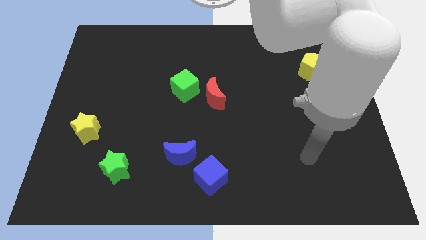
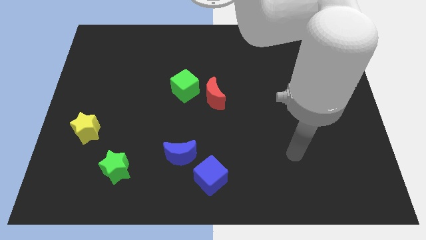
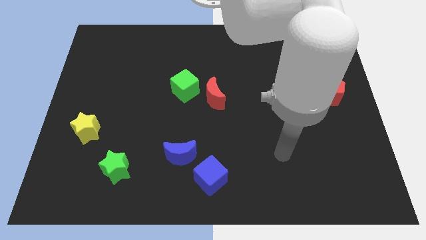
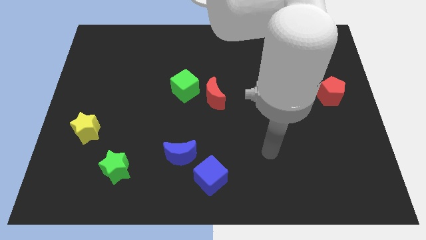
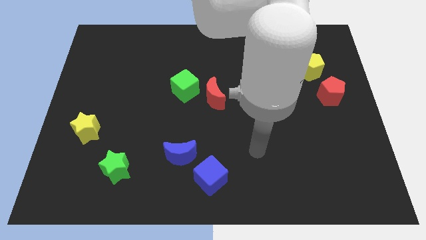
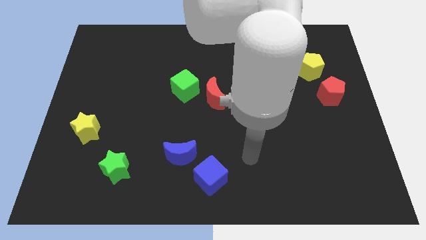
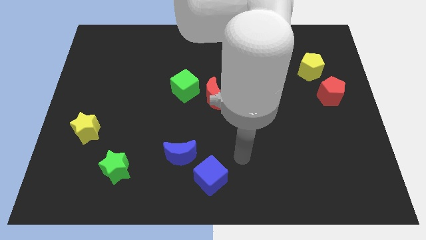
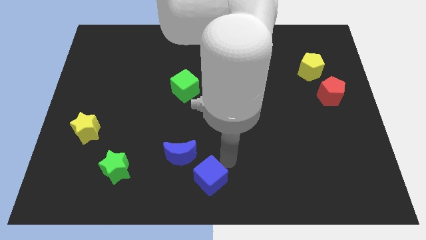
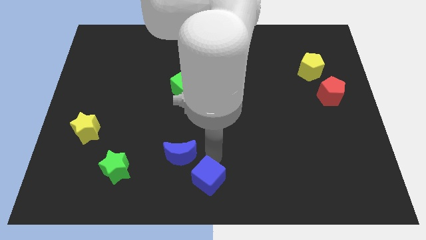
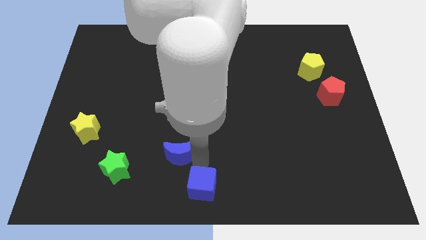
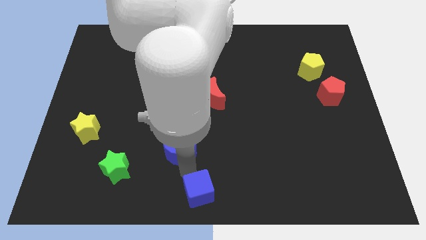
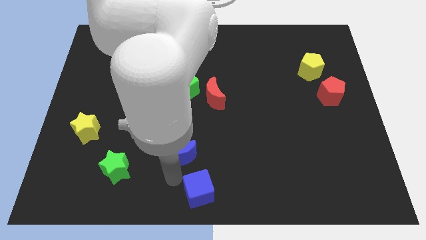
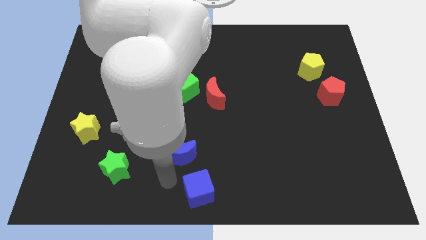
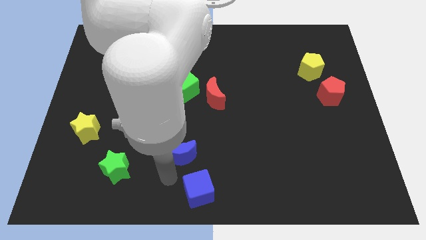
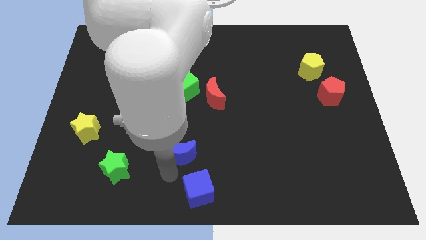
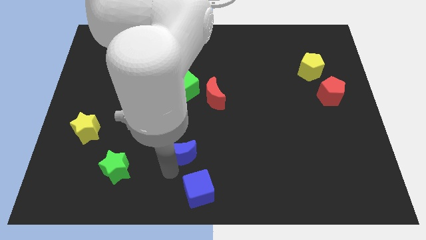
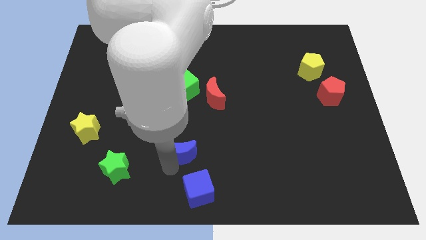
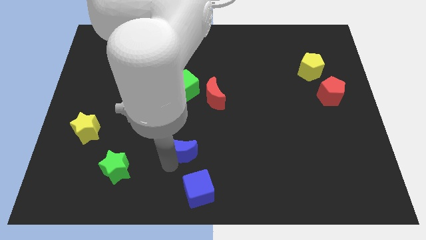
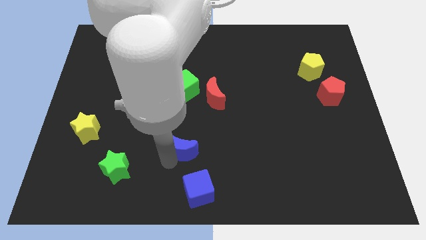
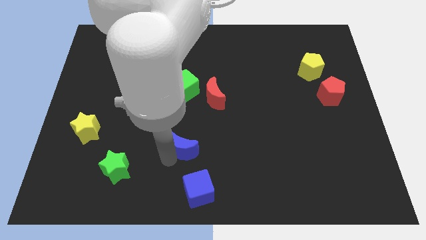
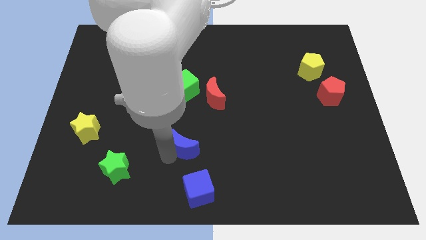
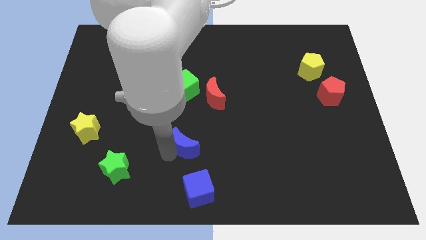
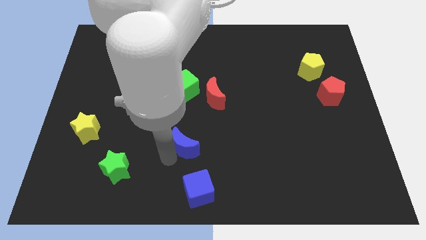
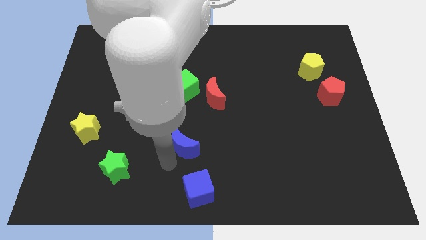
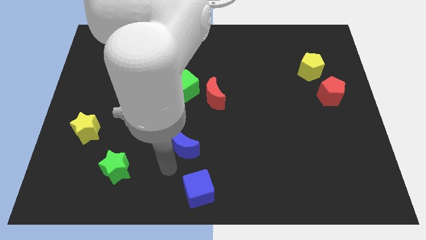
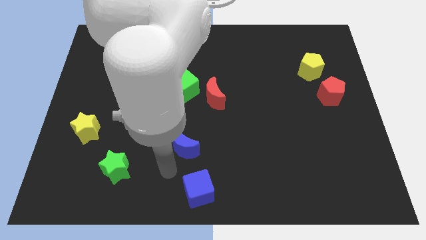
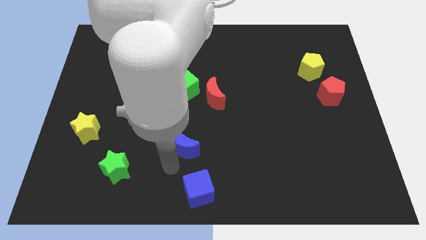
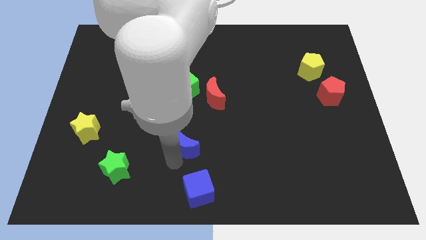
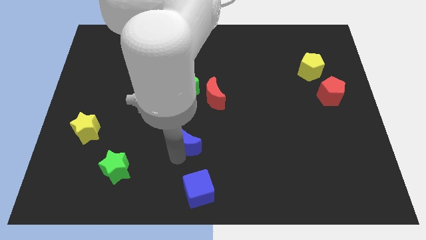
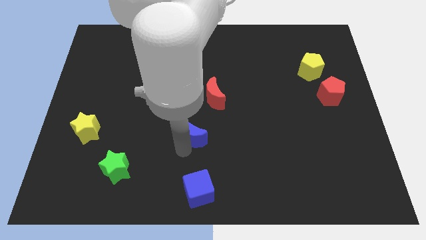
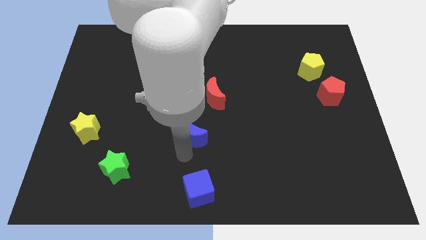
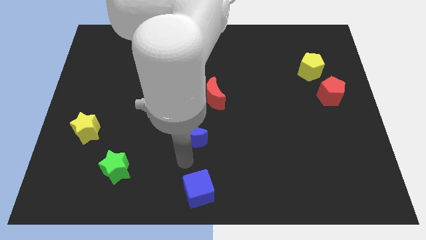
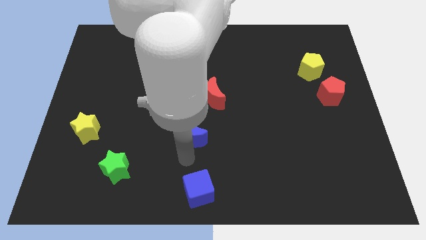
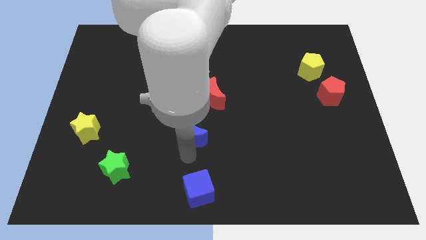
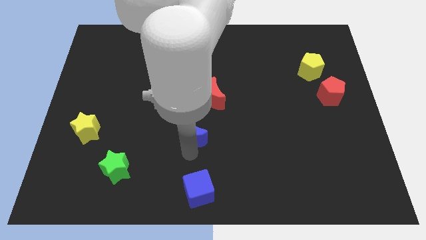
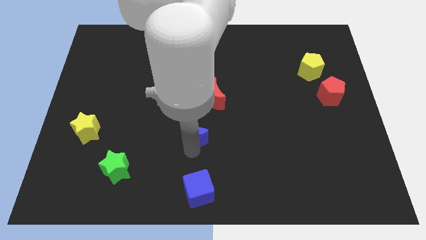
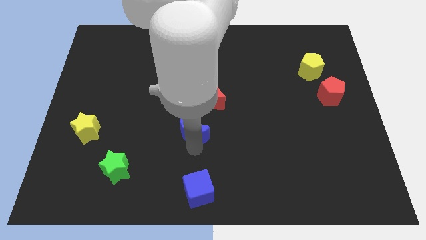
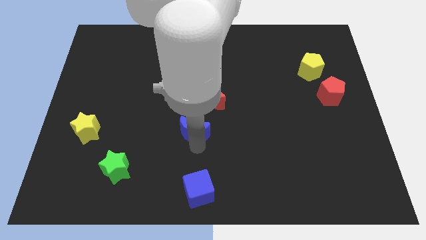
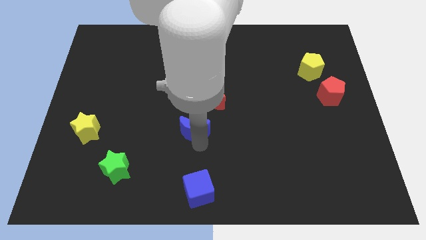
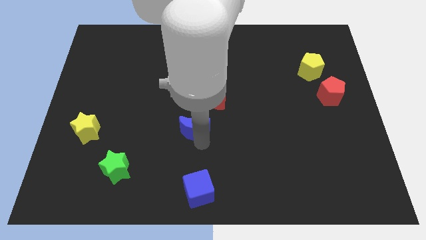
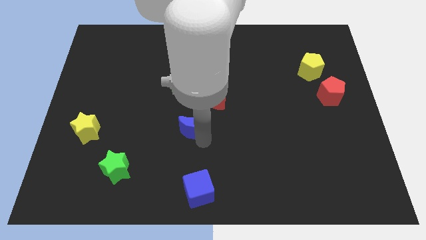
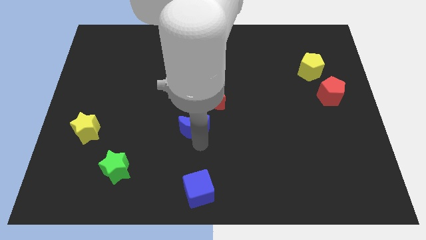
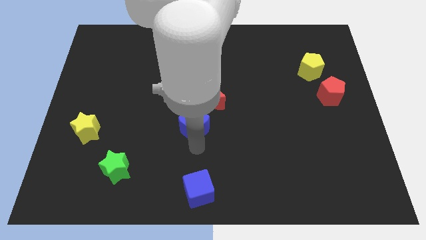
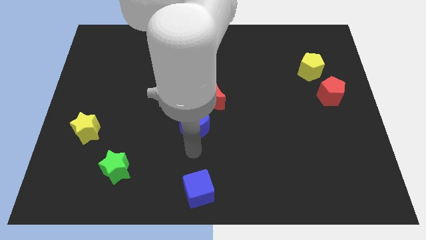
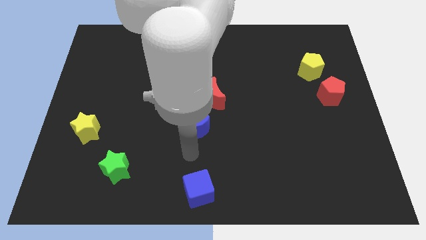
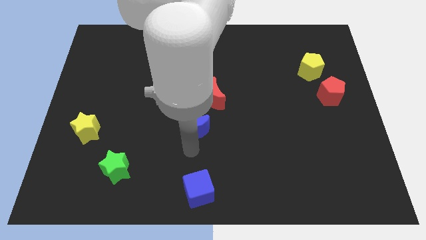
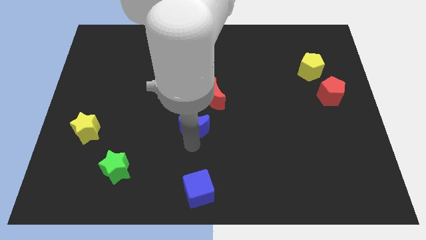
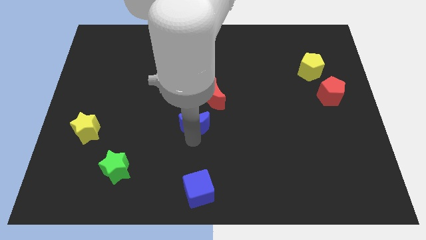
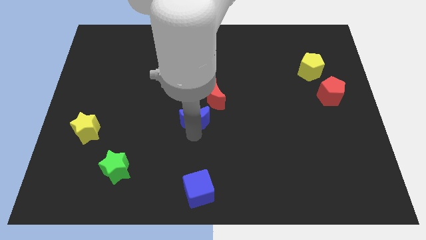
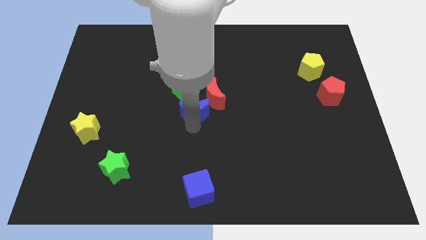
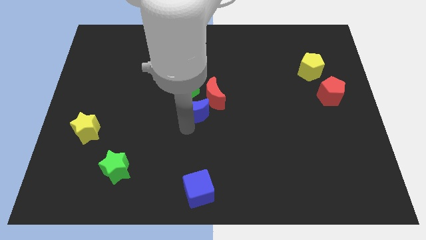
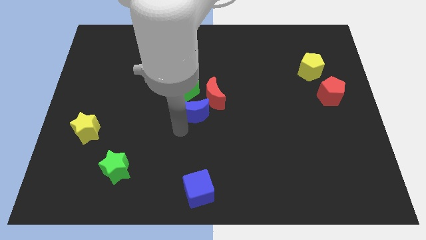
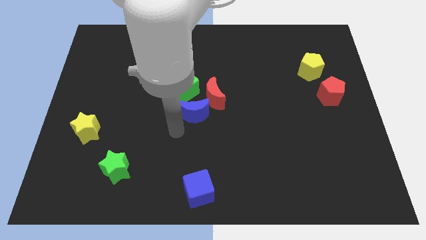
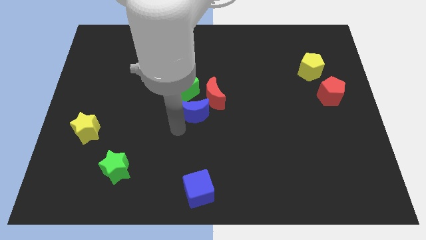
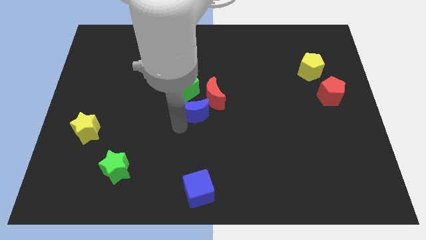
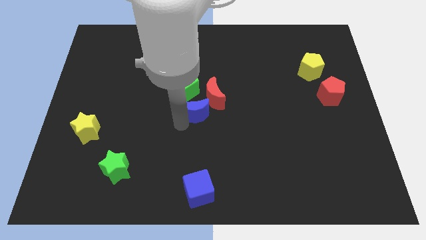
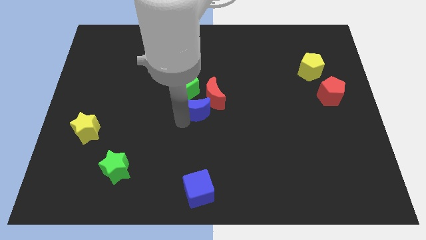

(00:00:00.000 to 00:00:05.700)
move the blue moon next to the red moon

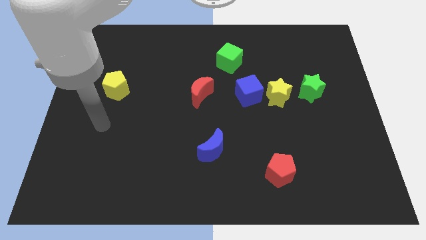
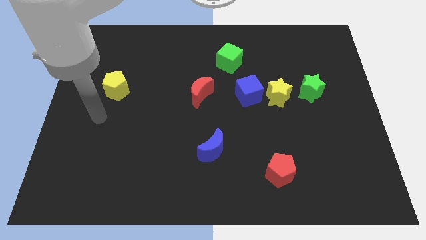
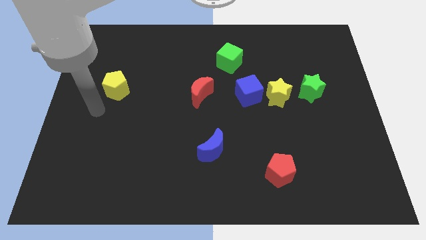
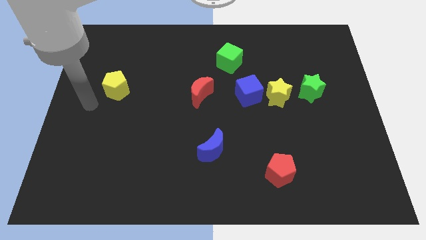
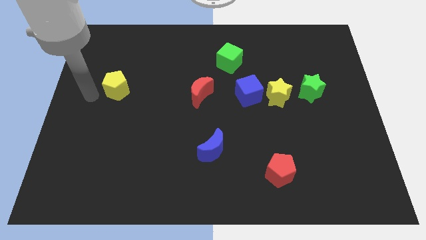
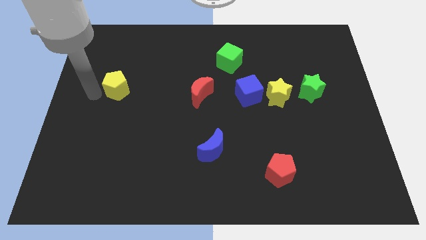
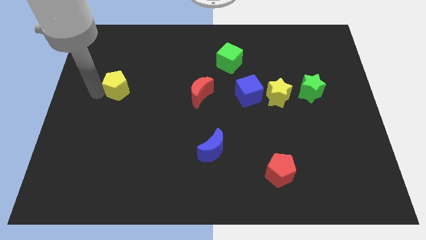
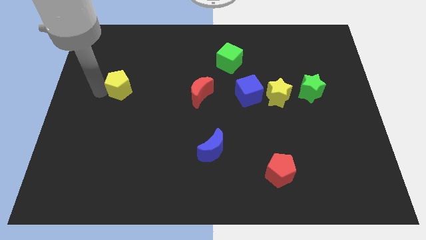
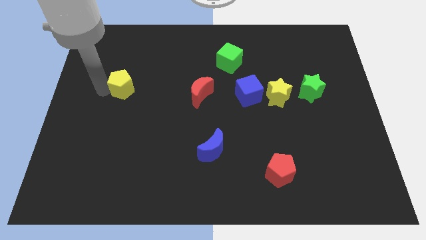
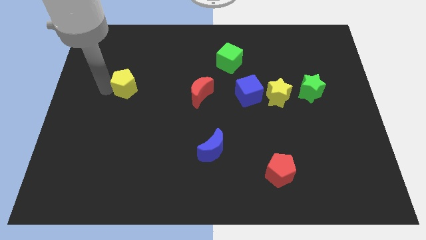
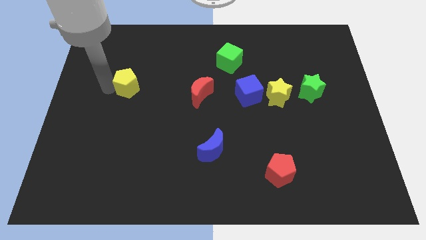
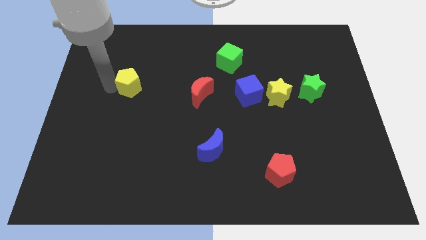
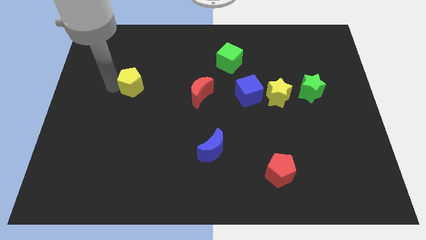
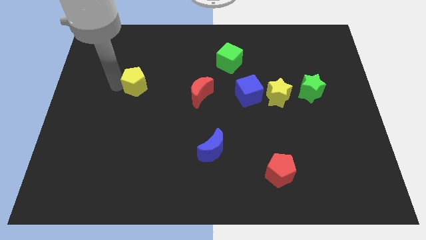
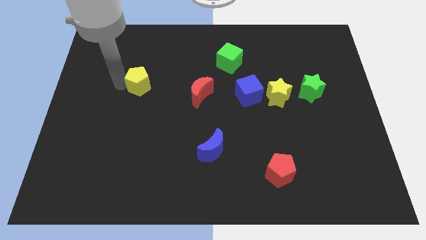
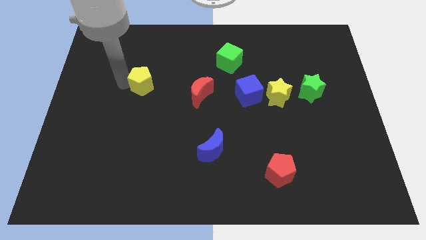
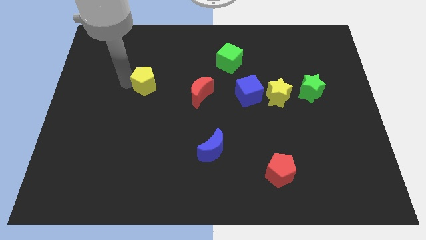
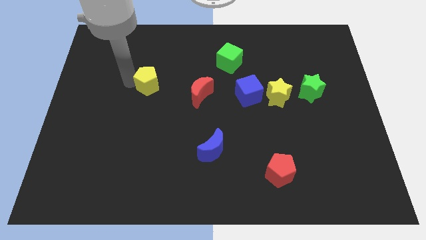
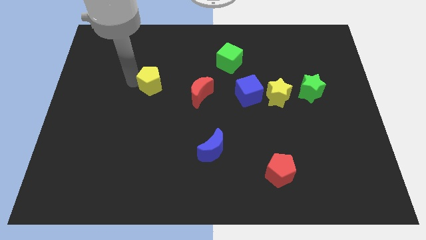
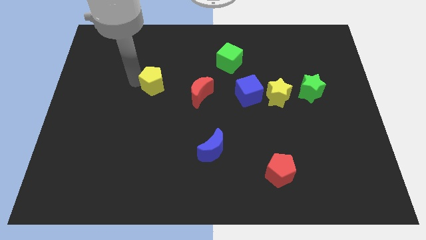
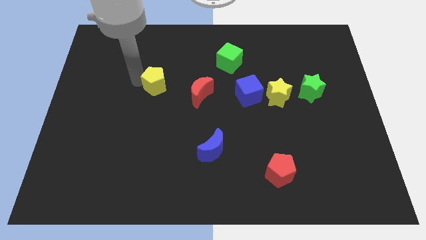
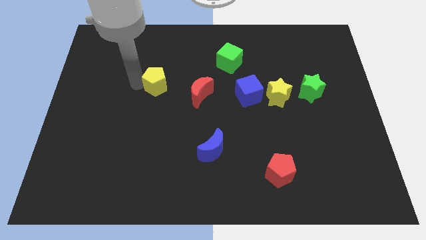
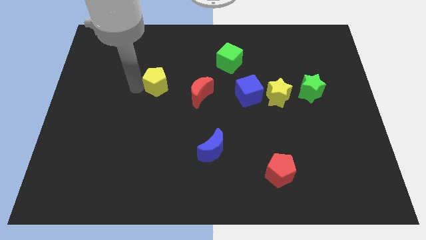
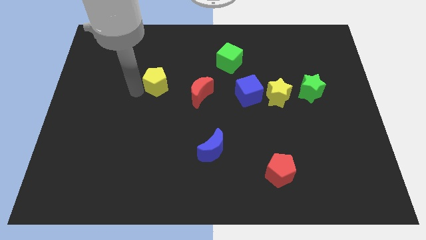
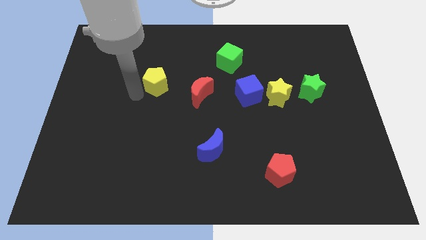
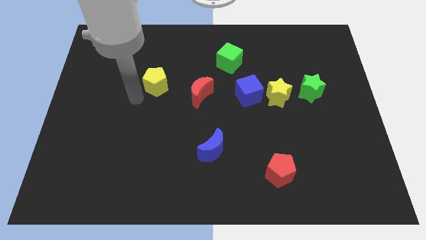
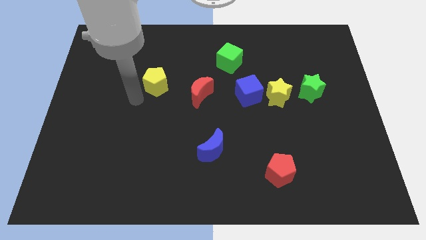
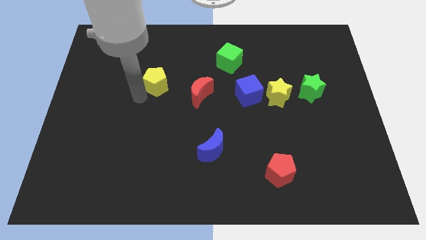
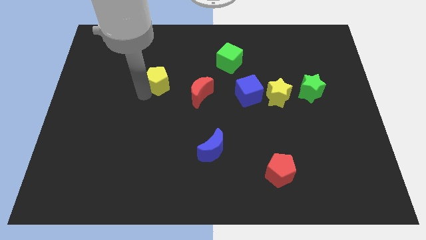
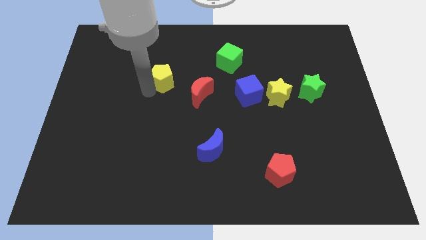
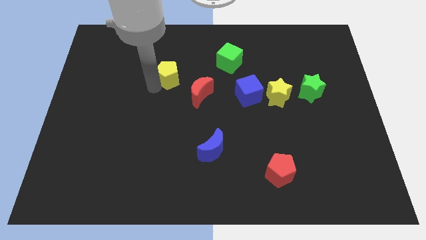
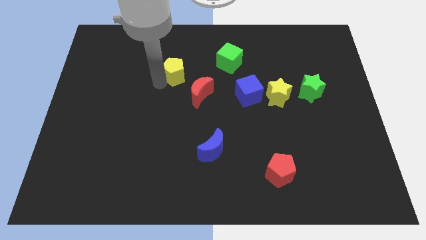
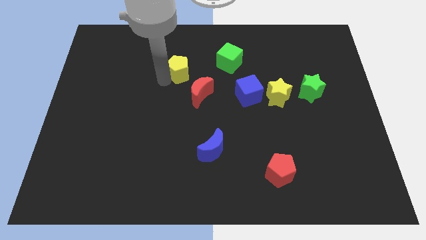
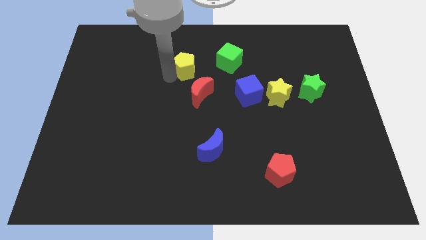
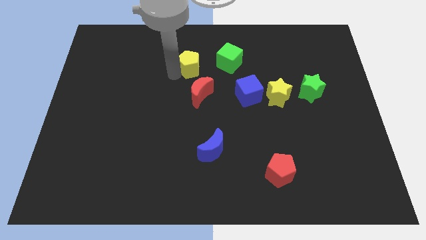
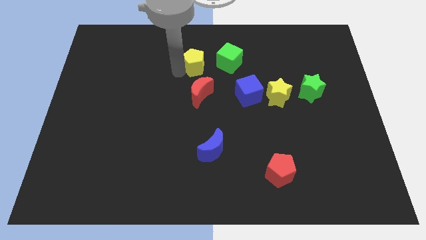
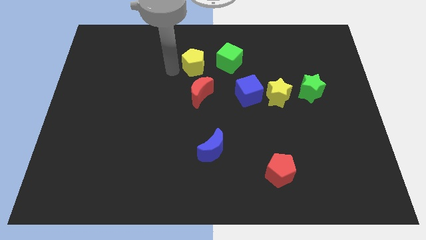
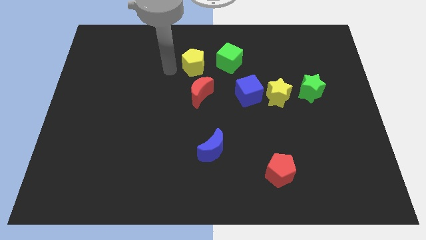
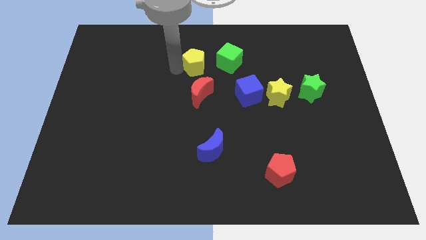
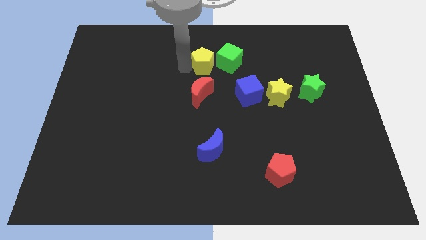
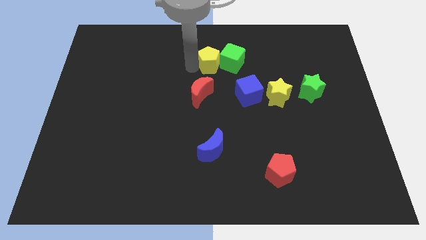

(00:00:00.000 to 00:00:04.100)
slide the yellow pentagon towards the green cube
